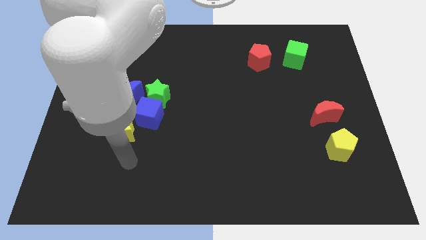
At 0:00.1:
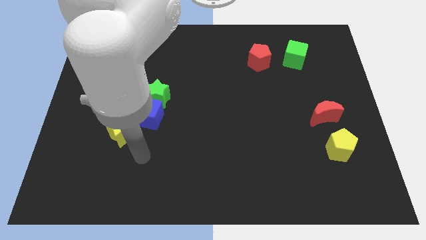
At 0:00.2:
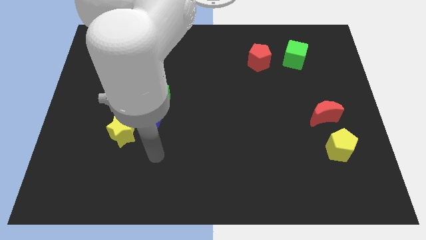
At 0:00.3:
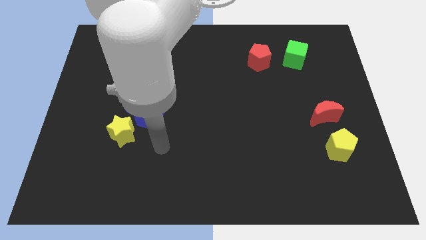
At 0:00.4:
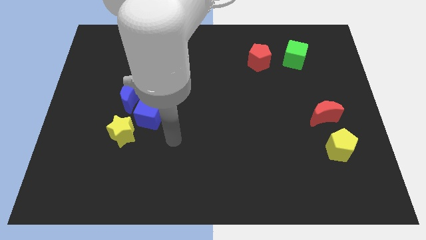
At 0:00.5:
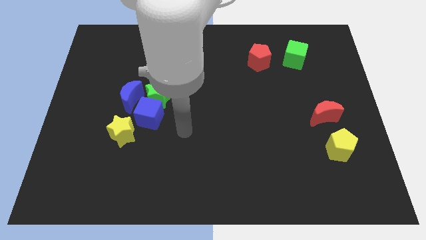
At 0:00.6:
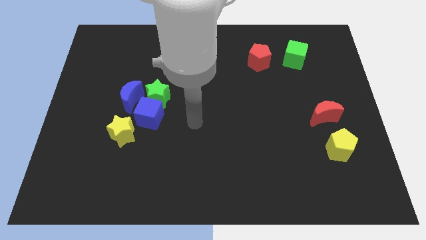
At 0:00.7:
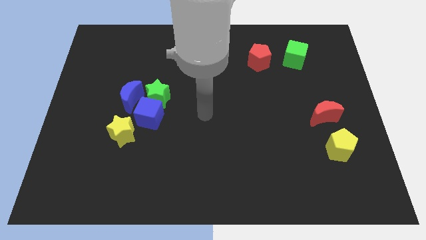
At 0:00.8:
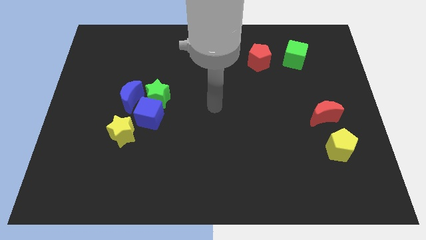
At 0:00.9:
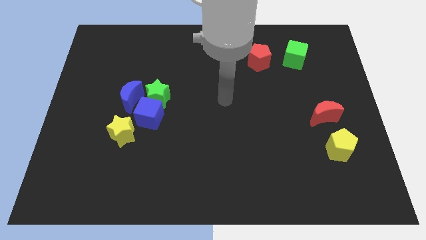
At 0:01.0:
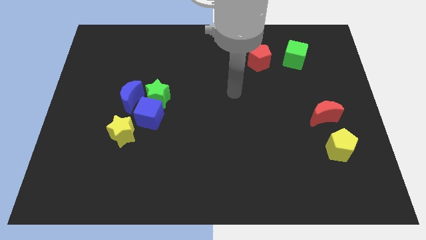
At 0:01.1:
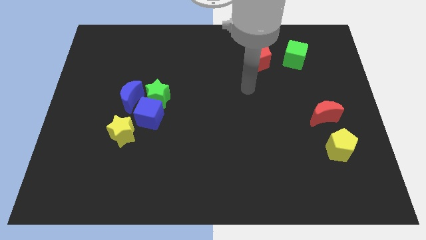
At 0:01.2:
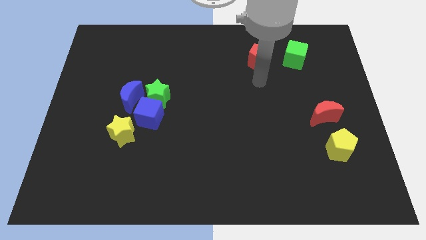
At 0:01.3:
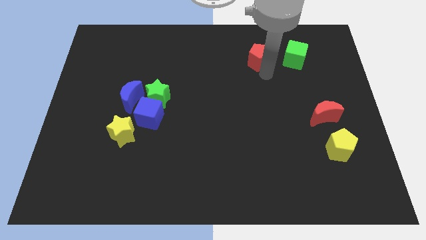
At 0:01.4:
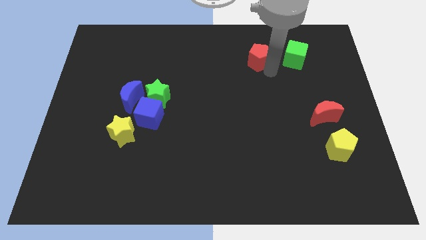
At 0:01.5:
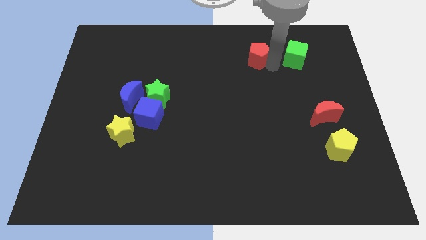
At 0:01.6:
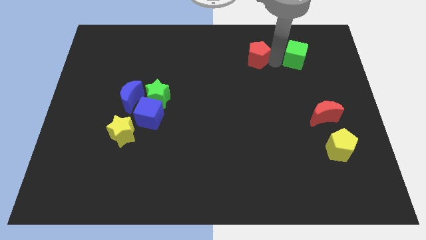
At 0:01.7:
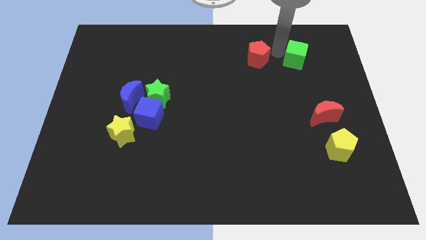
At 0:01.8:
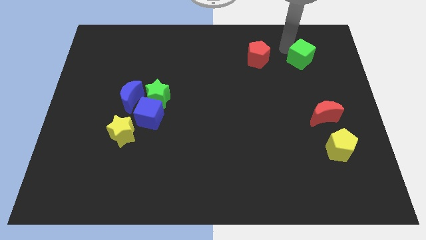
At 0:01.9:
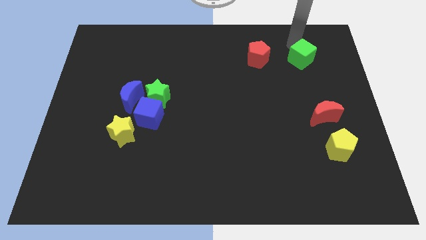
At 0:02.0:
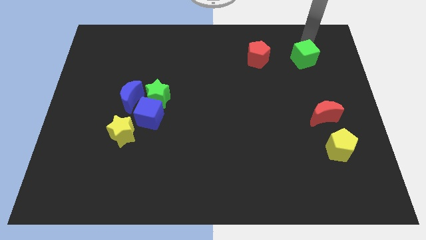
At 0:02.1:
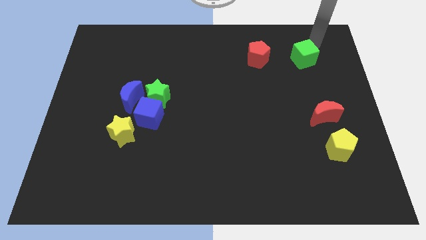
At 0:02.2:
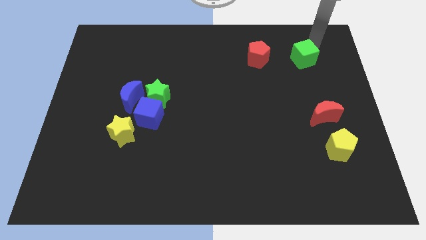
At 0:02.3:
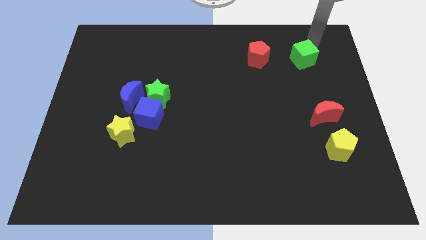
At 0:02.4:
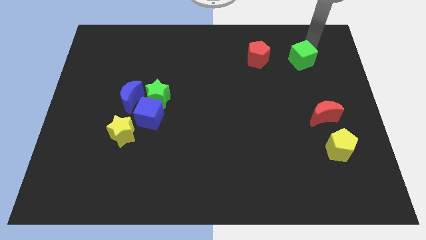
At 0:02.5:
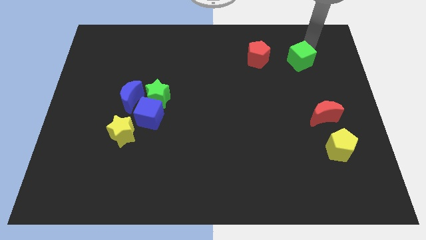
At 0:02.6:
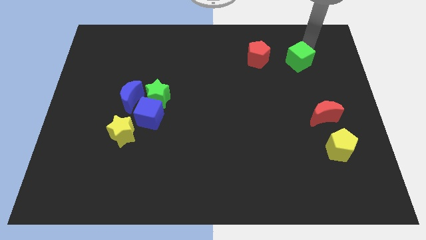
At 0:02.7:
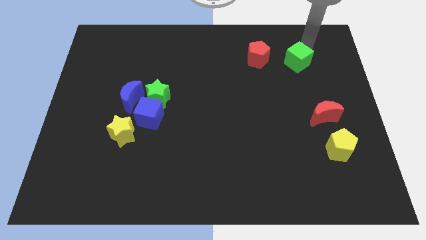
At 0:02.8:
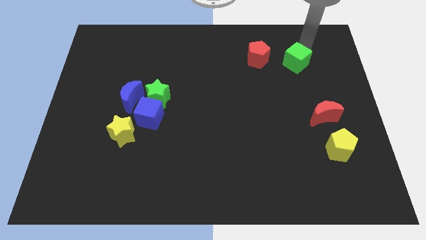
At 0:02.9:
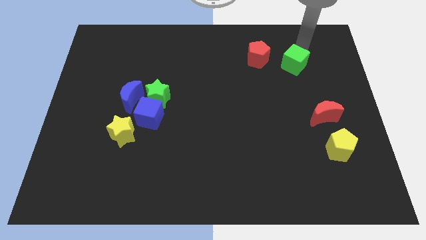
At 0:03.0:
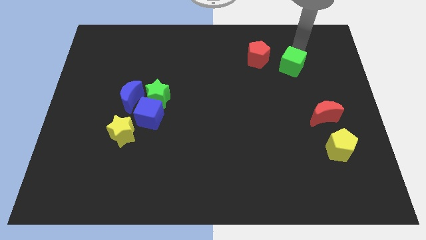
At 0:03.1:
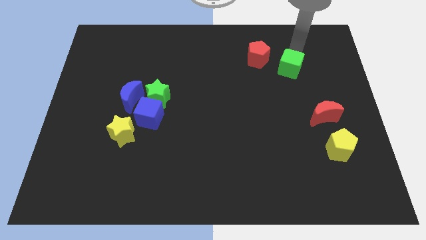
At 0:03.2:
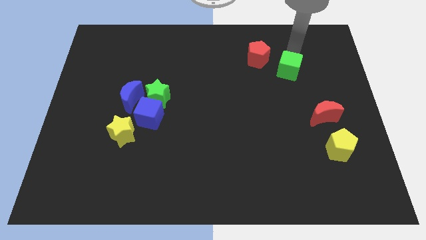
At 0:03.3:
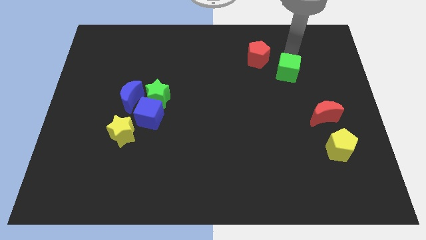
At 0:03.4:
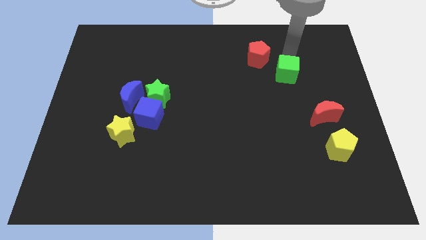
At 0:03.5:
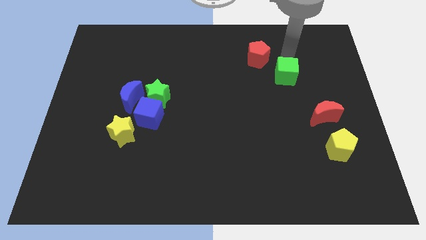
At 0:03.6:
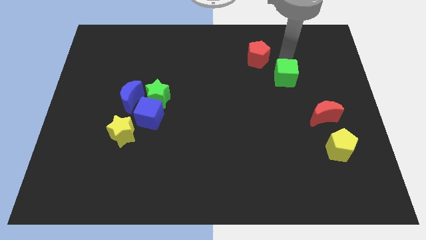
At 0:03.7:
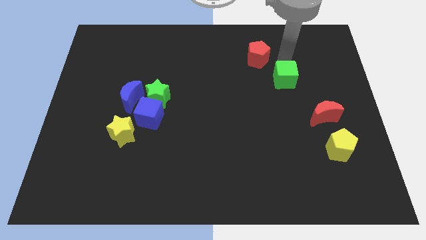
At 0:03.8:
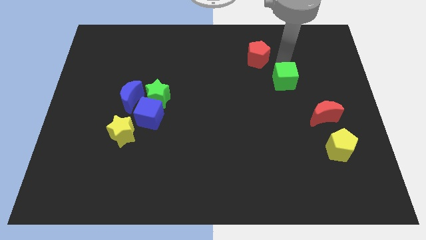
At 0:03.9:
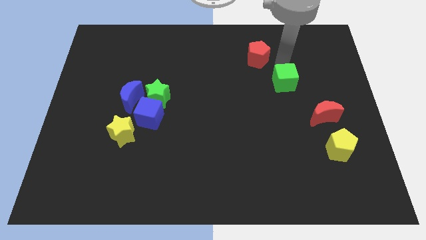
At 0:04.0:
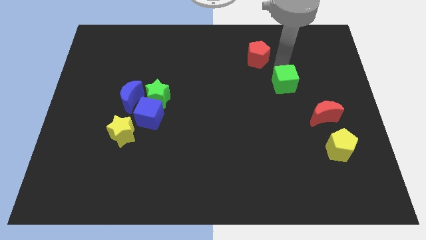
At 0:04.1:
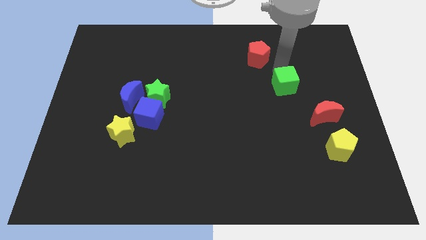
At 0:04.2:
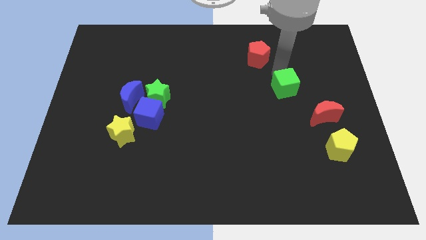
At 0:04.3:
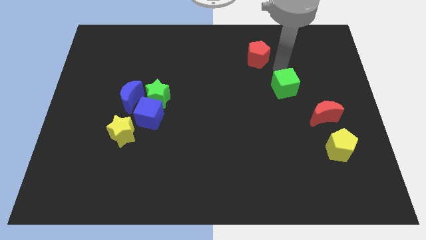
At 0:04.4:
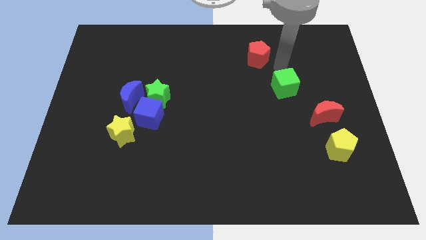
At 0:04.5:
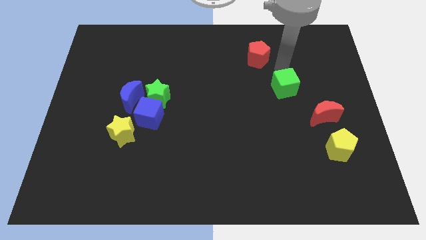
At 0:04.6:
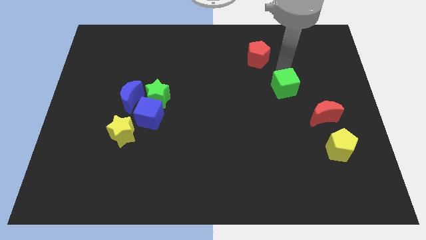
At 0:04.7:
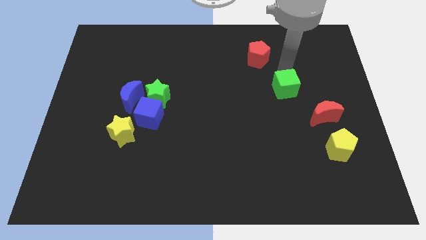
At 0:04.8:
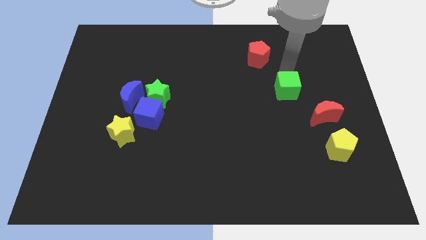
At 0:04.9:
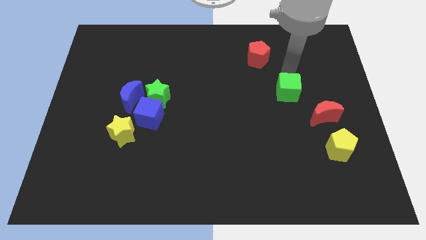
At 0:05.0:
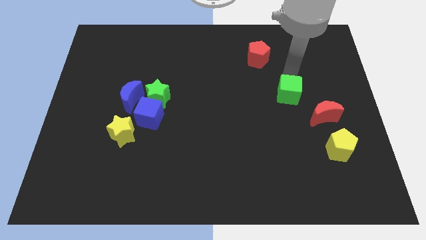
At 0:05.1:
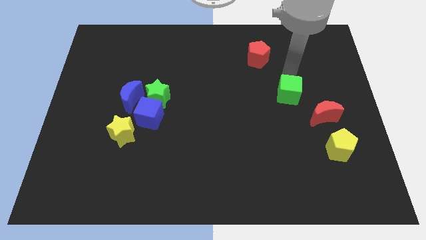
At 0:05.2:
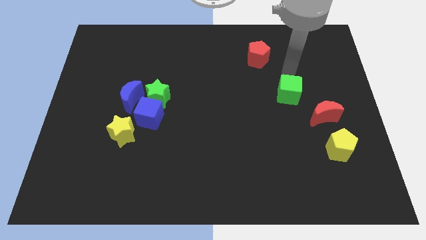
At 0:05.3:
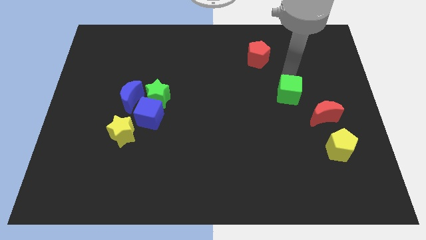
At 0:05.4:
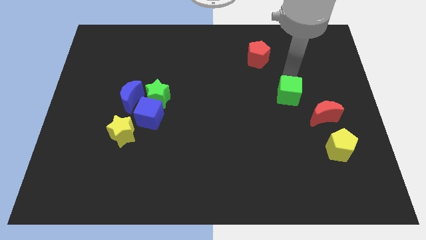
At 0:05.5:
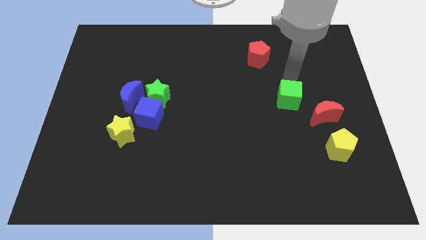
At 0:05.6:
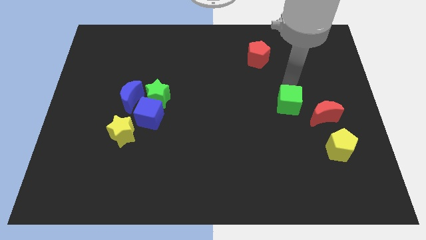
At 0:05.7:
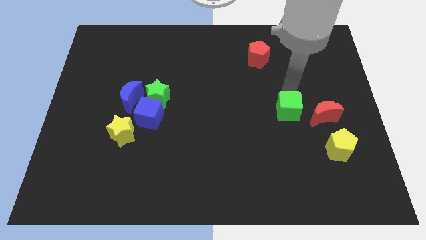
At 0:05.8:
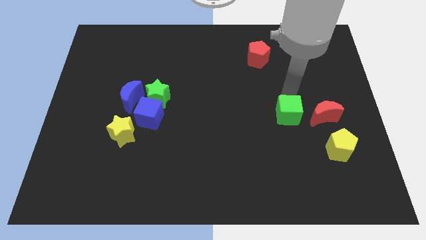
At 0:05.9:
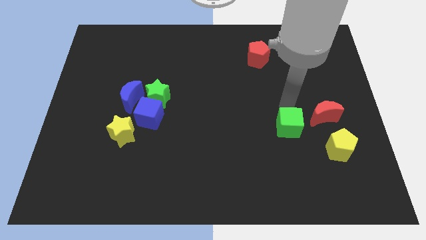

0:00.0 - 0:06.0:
move the green cube downwards

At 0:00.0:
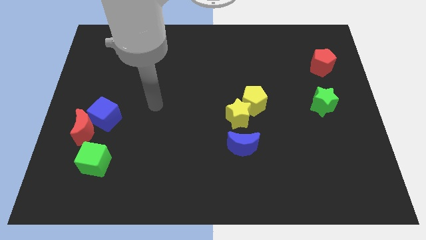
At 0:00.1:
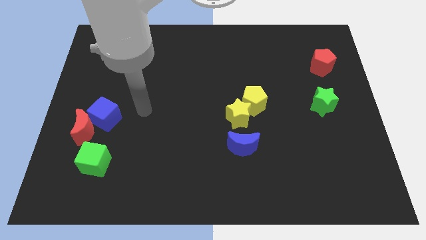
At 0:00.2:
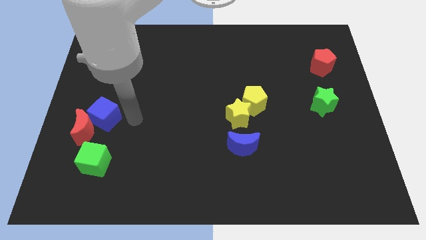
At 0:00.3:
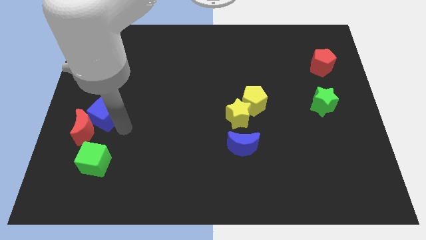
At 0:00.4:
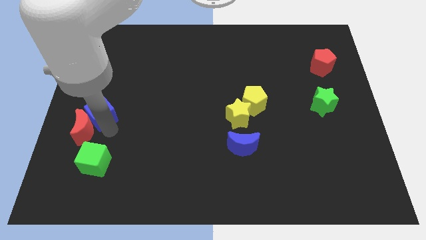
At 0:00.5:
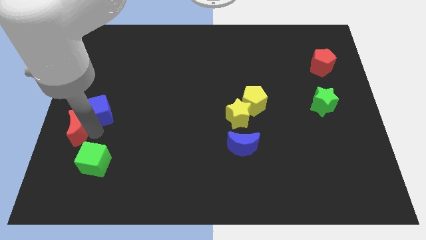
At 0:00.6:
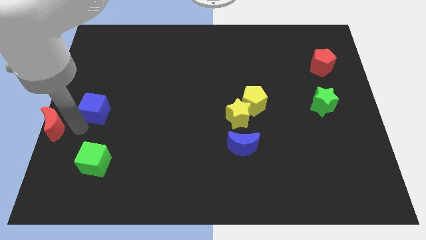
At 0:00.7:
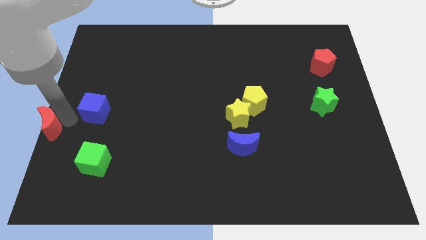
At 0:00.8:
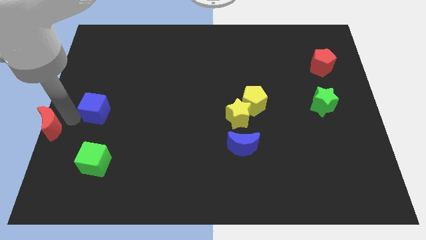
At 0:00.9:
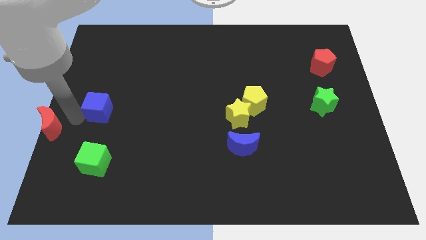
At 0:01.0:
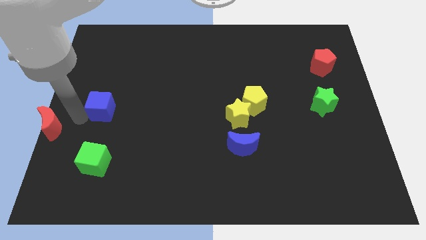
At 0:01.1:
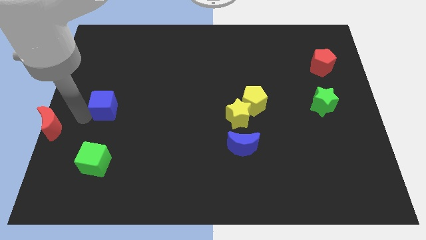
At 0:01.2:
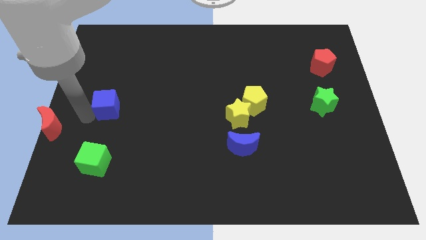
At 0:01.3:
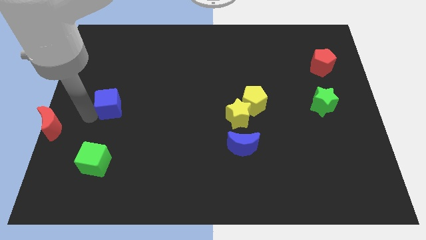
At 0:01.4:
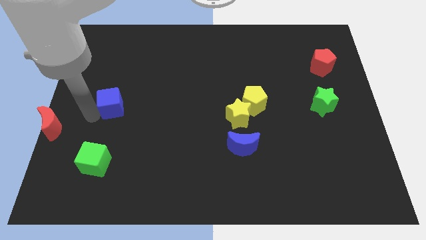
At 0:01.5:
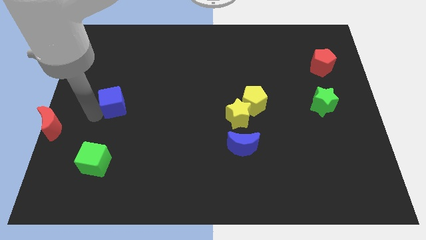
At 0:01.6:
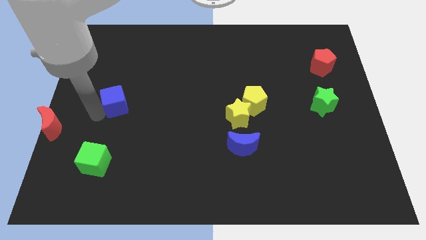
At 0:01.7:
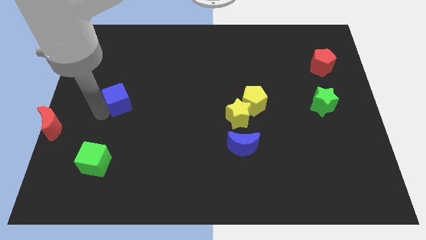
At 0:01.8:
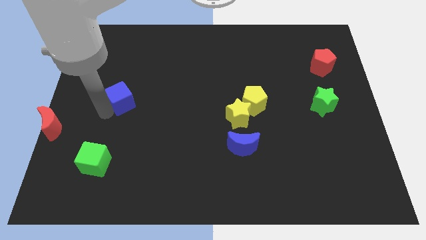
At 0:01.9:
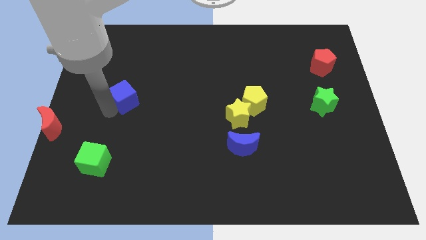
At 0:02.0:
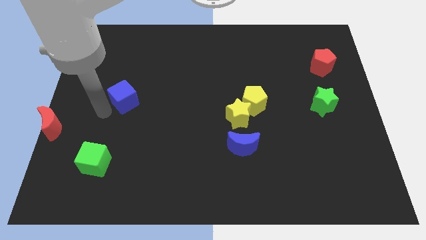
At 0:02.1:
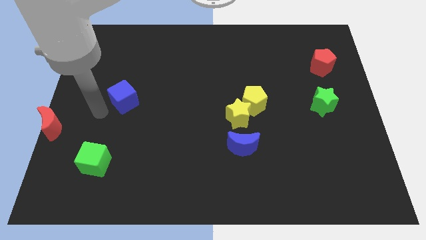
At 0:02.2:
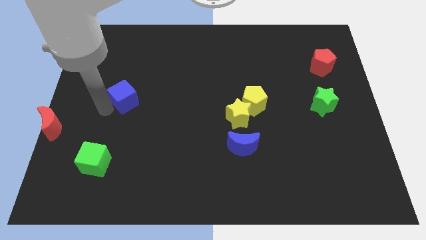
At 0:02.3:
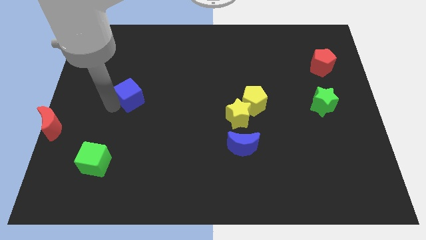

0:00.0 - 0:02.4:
move the blue cube up and then to the right a bit
